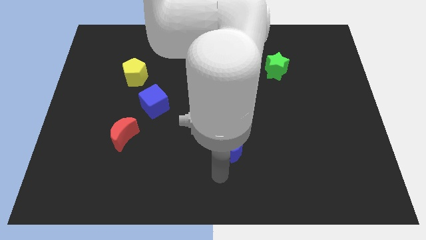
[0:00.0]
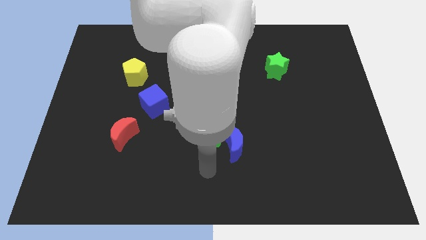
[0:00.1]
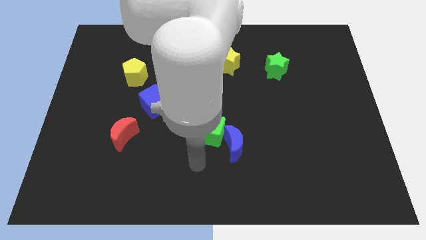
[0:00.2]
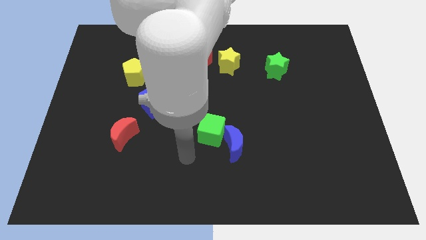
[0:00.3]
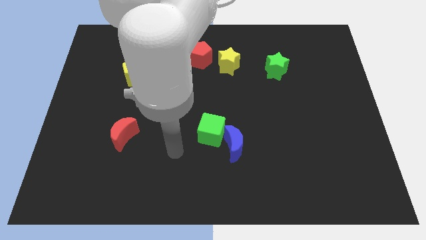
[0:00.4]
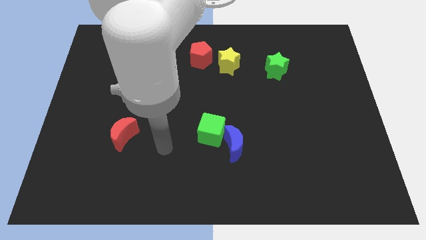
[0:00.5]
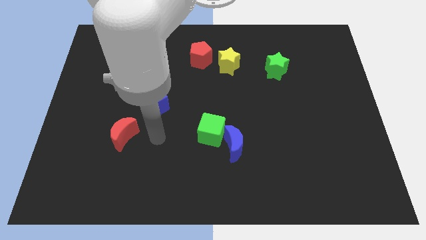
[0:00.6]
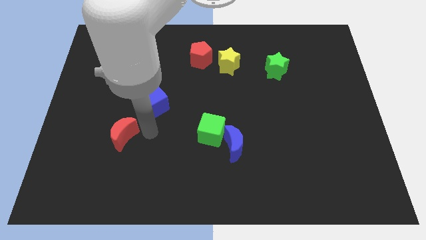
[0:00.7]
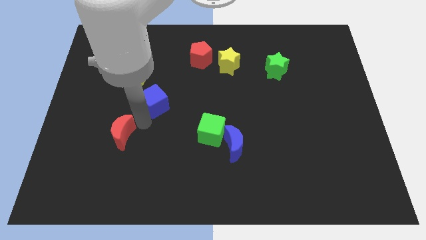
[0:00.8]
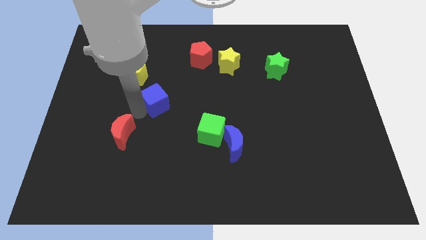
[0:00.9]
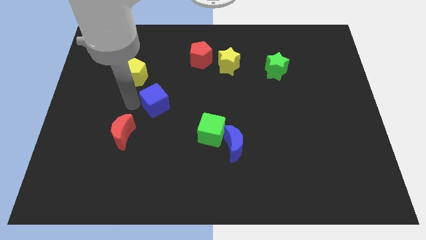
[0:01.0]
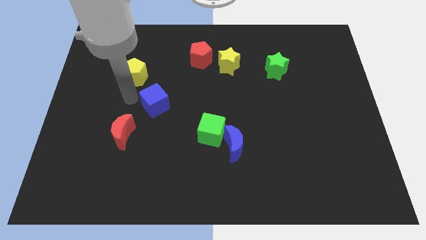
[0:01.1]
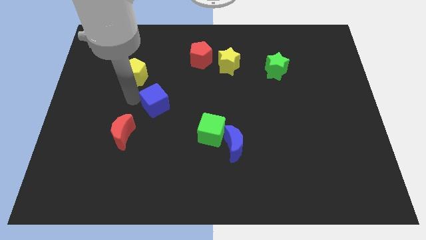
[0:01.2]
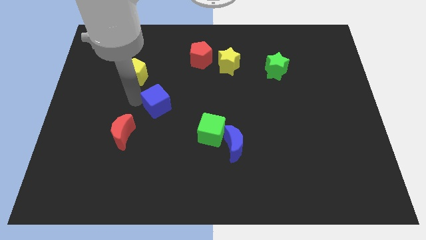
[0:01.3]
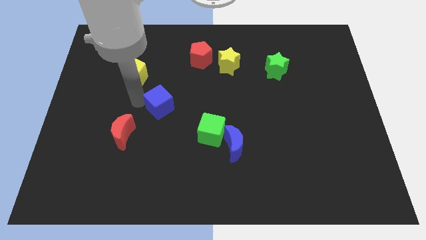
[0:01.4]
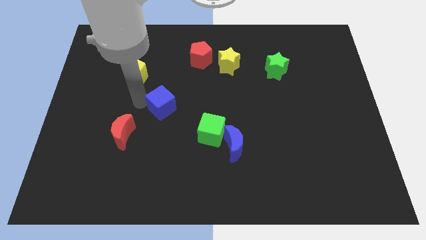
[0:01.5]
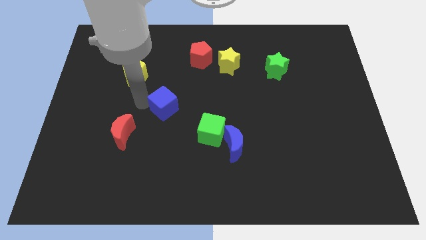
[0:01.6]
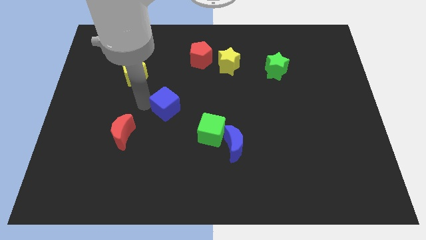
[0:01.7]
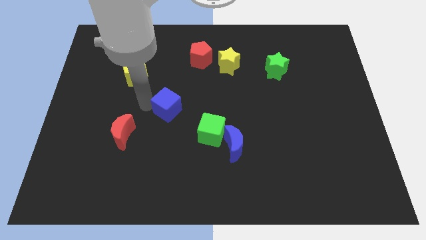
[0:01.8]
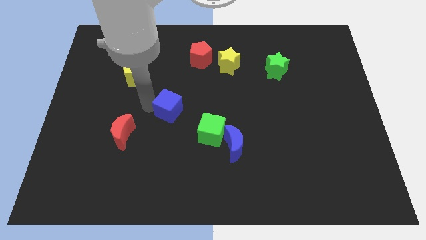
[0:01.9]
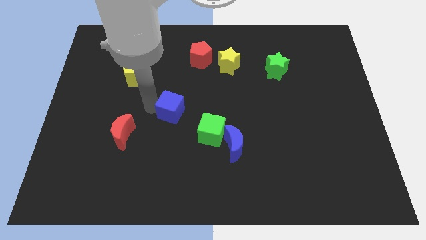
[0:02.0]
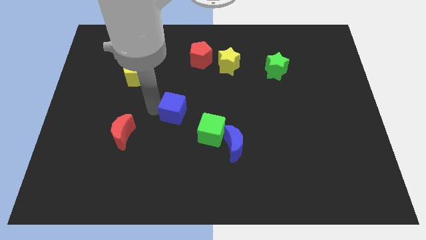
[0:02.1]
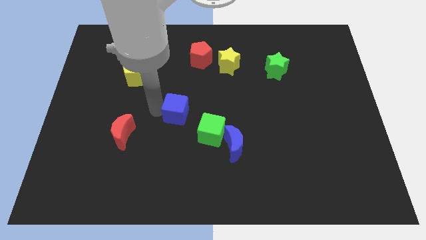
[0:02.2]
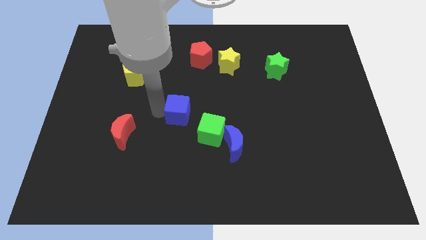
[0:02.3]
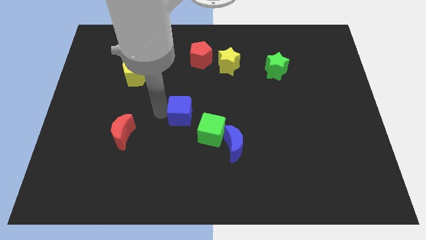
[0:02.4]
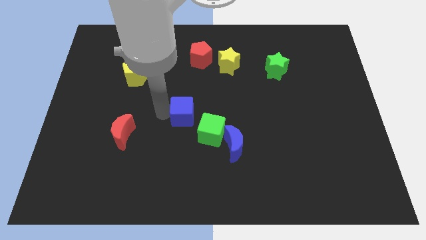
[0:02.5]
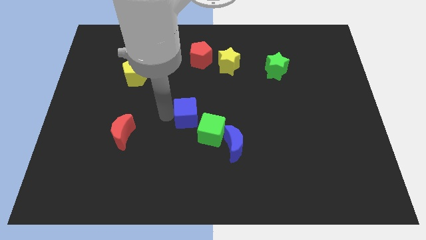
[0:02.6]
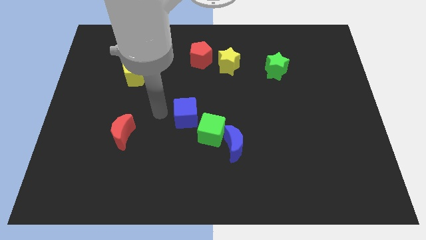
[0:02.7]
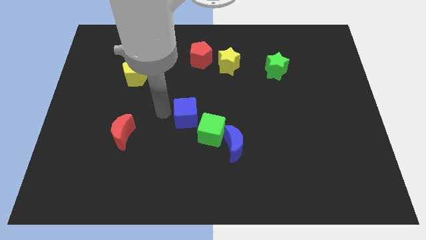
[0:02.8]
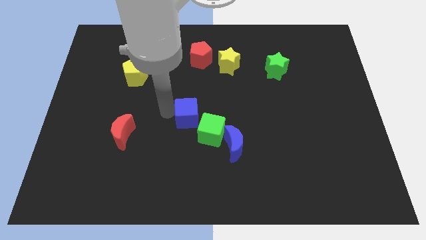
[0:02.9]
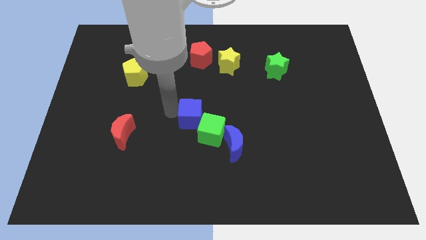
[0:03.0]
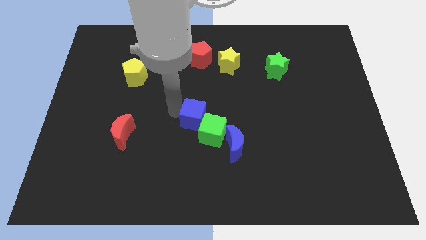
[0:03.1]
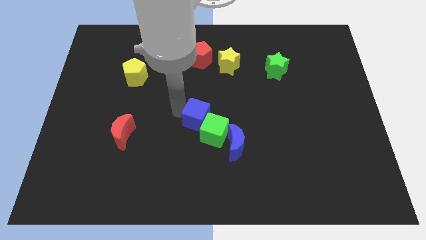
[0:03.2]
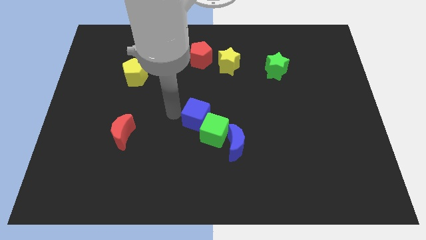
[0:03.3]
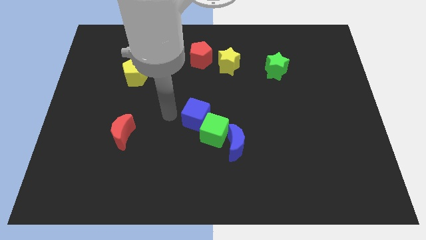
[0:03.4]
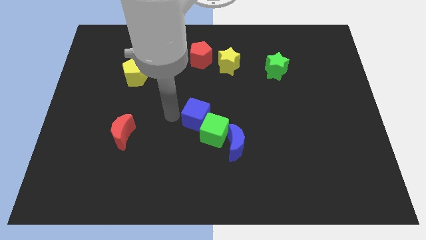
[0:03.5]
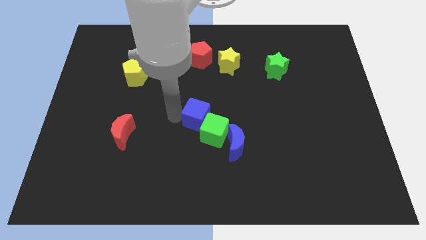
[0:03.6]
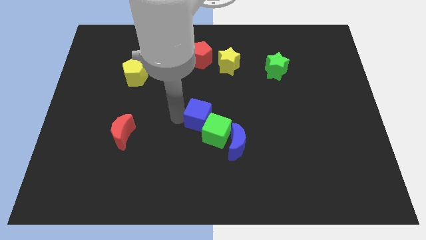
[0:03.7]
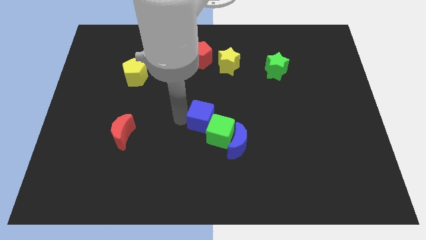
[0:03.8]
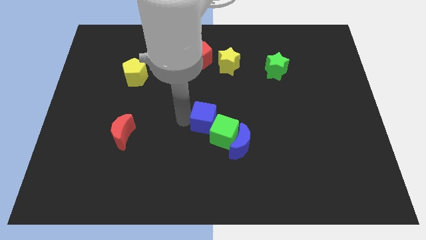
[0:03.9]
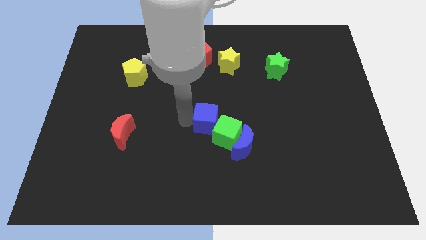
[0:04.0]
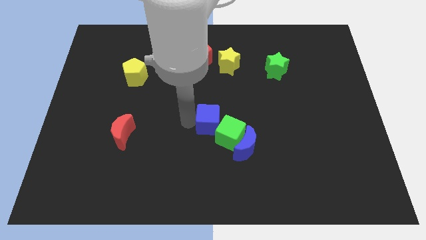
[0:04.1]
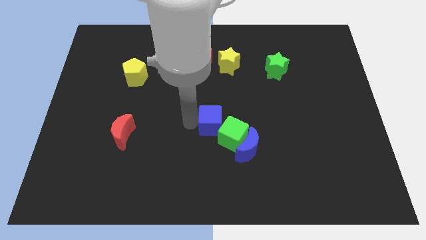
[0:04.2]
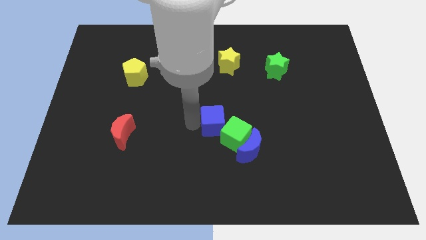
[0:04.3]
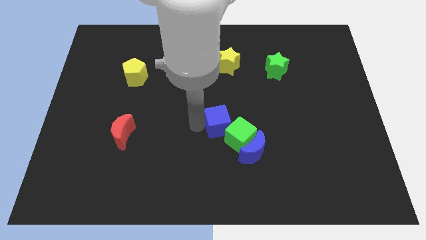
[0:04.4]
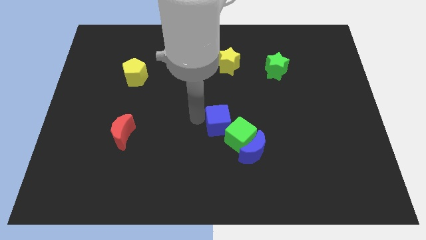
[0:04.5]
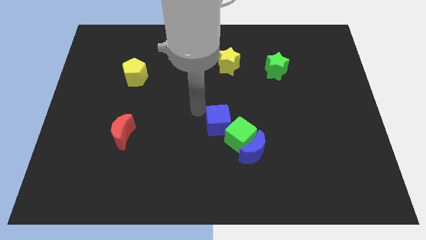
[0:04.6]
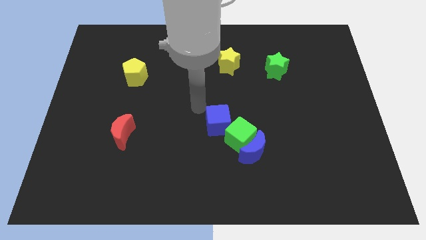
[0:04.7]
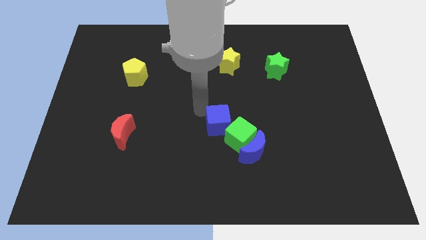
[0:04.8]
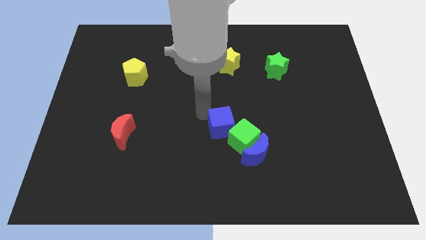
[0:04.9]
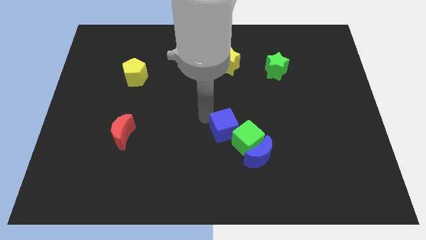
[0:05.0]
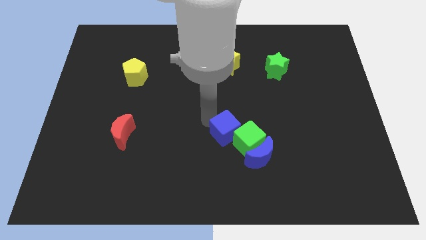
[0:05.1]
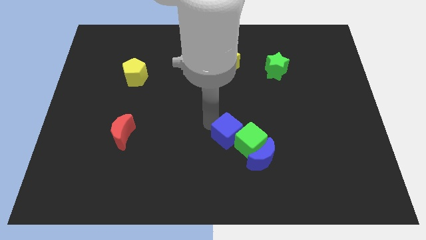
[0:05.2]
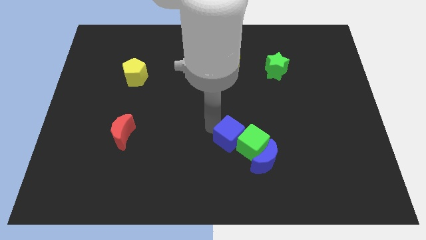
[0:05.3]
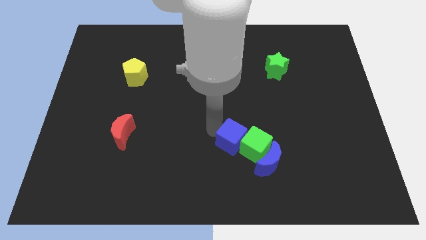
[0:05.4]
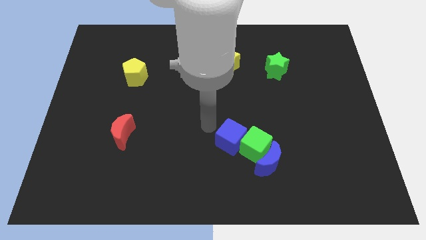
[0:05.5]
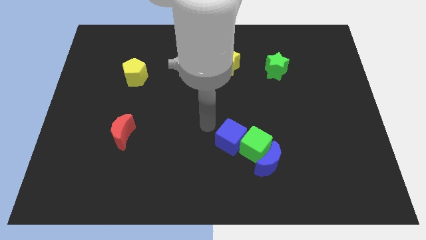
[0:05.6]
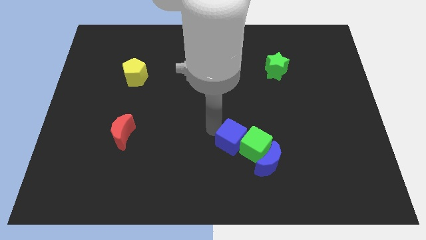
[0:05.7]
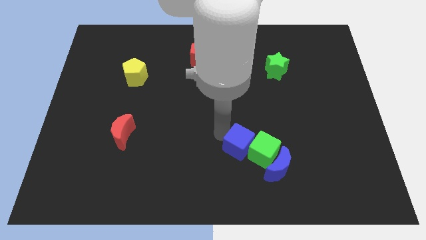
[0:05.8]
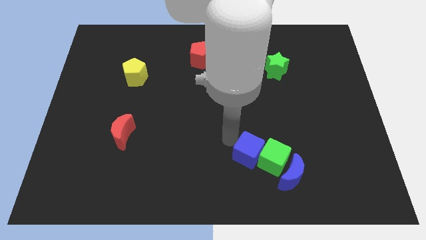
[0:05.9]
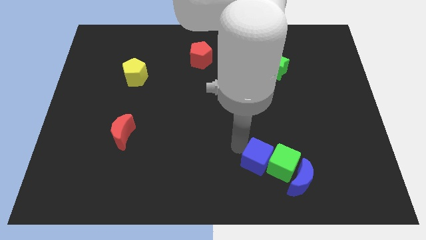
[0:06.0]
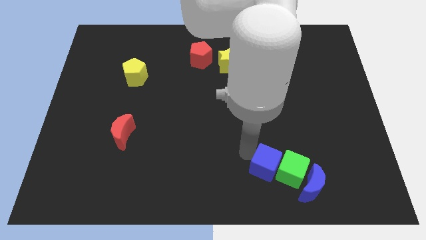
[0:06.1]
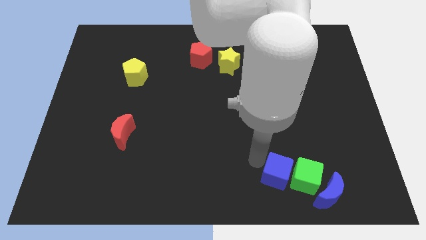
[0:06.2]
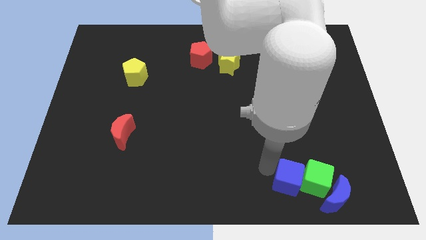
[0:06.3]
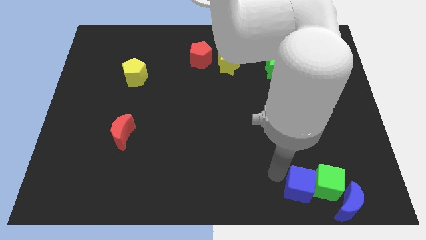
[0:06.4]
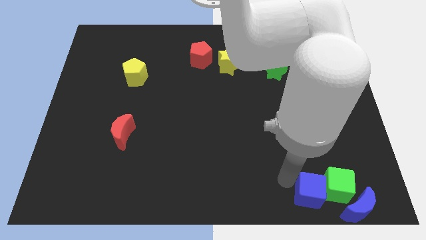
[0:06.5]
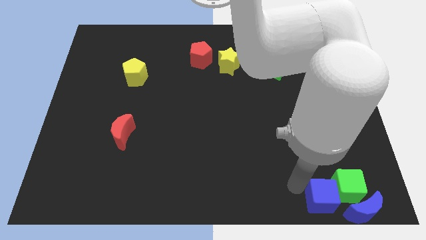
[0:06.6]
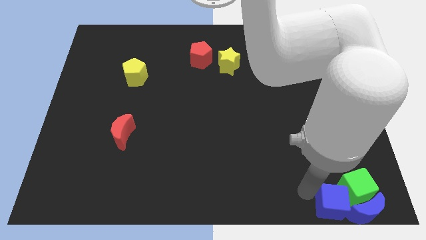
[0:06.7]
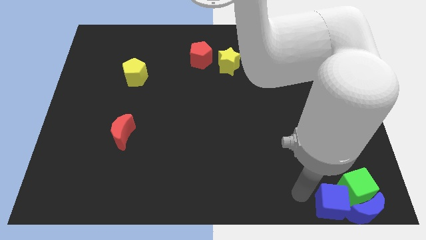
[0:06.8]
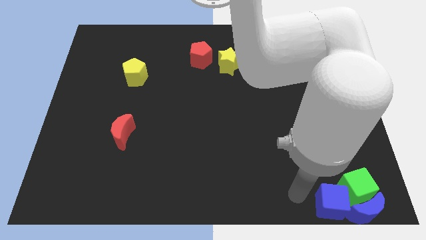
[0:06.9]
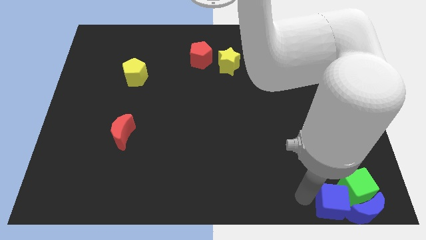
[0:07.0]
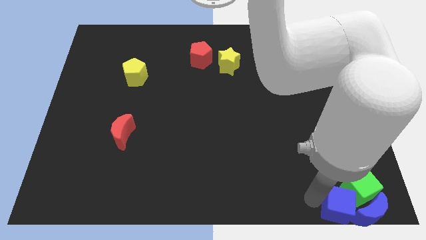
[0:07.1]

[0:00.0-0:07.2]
put the blue cube towards the blue moon
